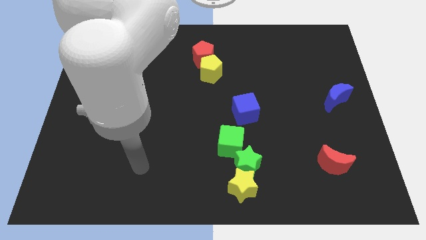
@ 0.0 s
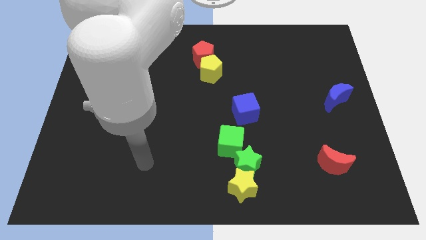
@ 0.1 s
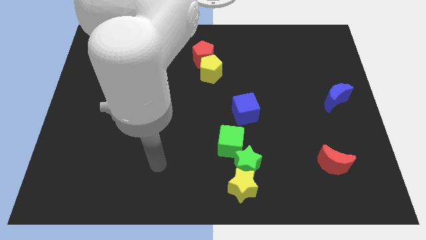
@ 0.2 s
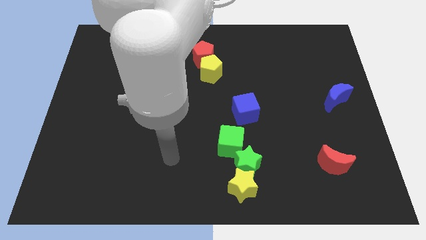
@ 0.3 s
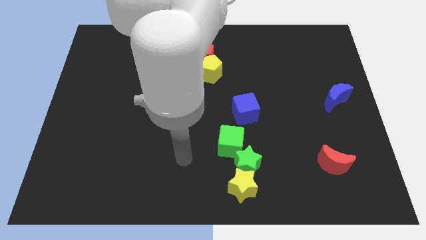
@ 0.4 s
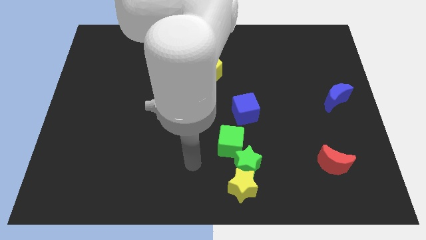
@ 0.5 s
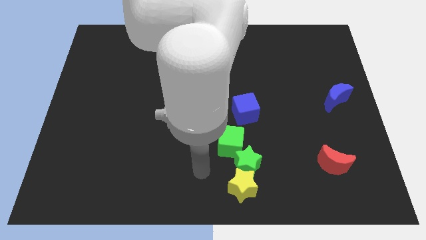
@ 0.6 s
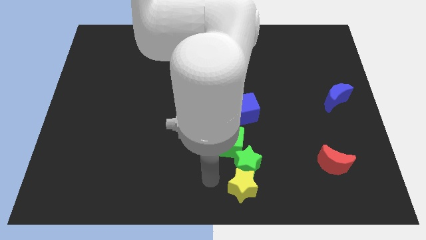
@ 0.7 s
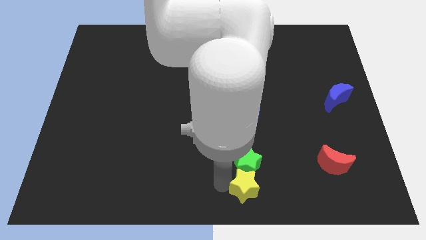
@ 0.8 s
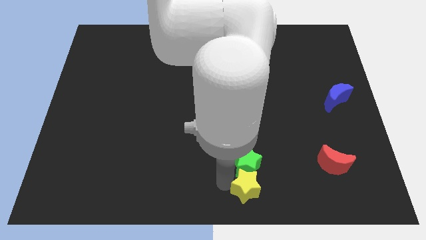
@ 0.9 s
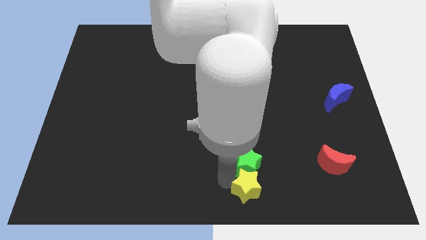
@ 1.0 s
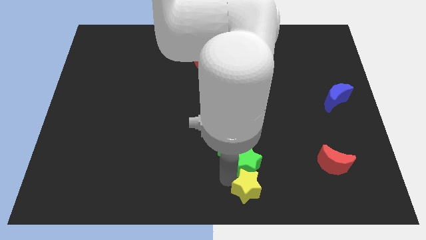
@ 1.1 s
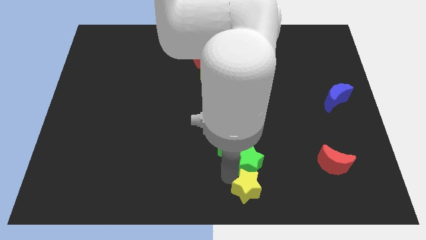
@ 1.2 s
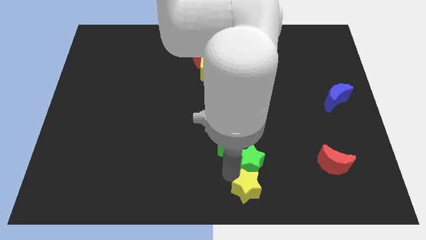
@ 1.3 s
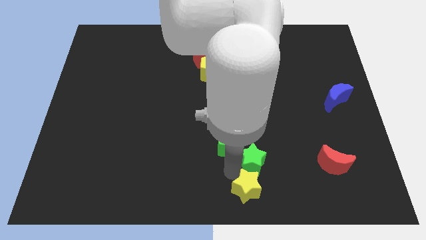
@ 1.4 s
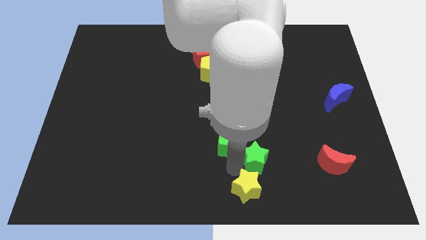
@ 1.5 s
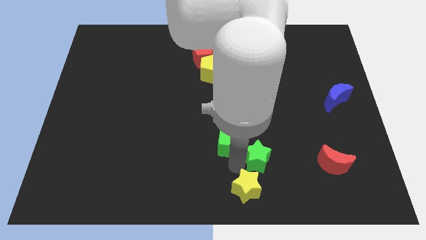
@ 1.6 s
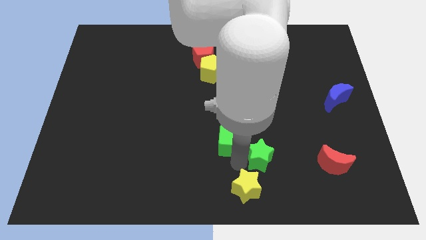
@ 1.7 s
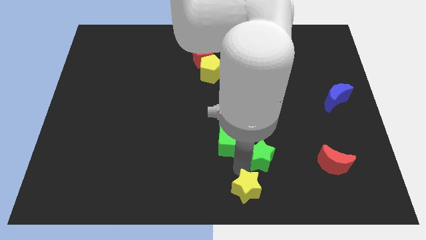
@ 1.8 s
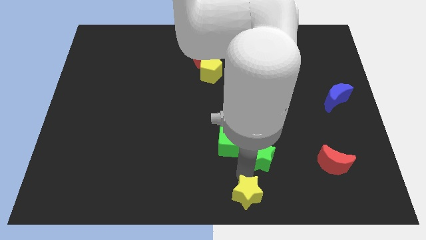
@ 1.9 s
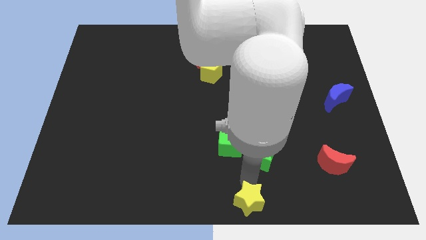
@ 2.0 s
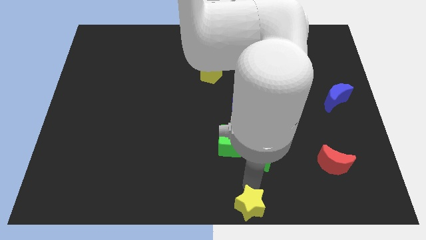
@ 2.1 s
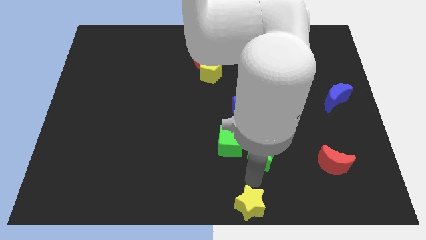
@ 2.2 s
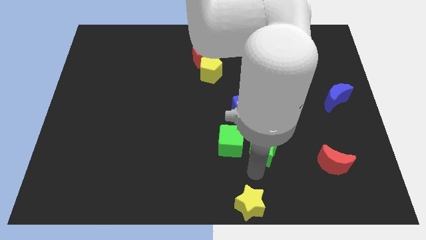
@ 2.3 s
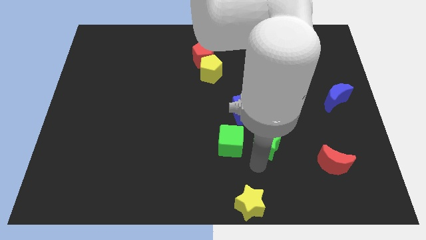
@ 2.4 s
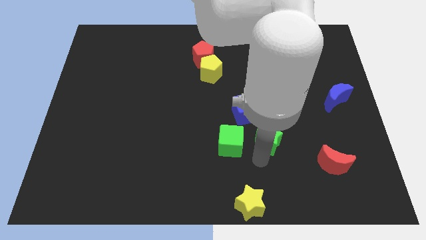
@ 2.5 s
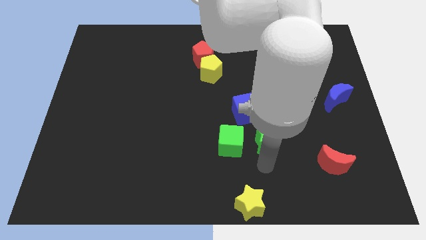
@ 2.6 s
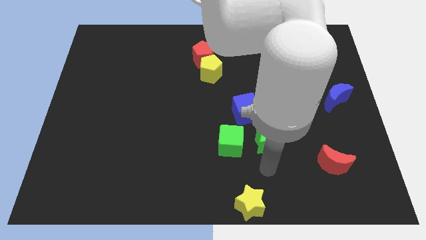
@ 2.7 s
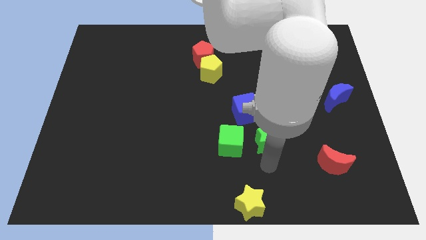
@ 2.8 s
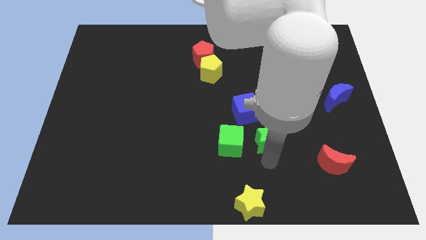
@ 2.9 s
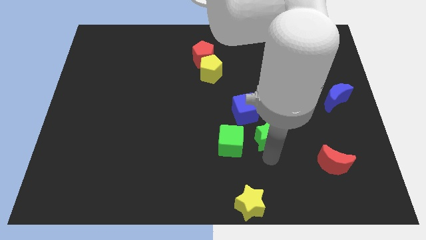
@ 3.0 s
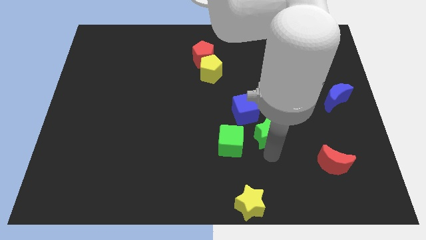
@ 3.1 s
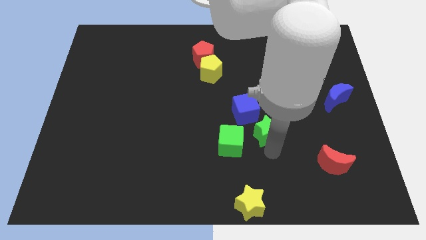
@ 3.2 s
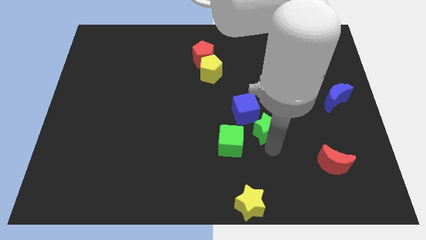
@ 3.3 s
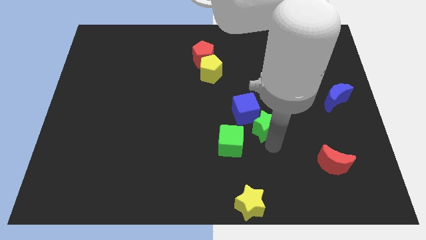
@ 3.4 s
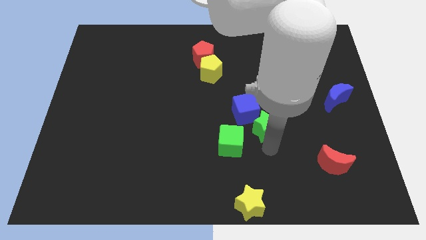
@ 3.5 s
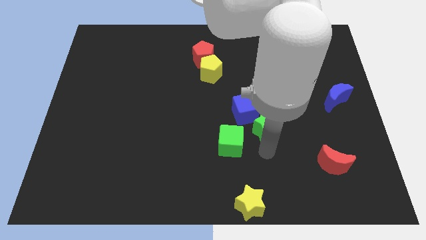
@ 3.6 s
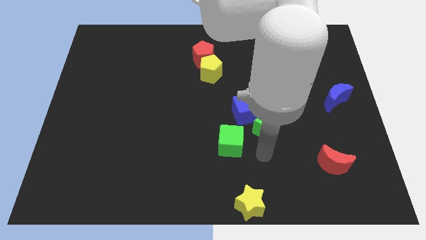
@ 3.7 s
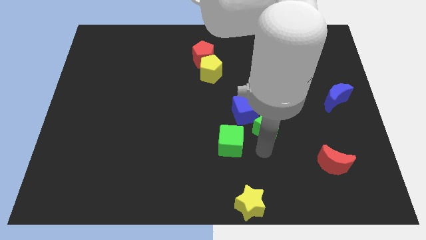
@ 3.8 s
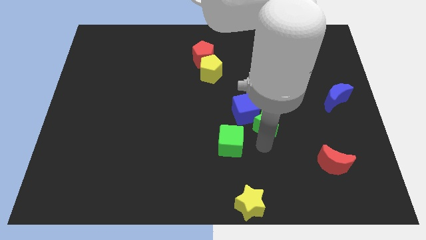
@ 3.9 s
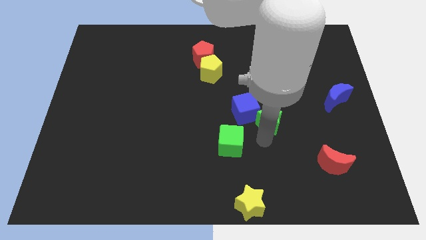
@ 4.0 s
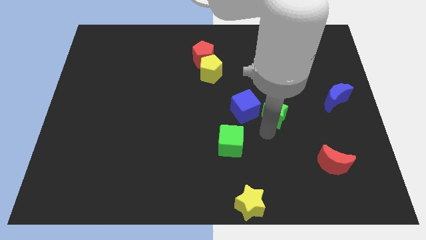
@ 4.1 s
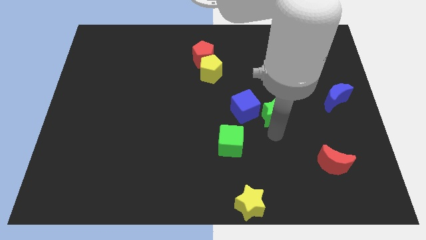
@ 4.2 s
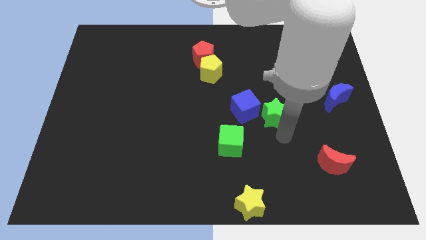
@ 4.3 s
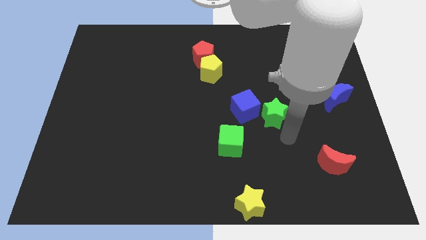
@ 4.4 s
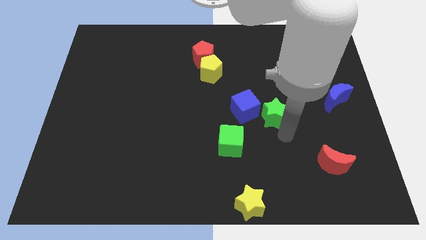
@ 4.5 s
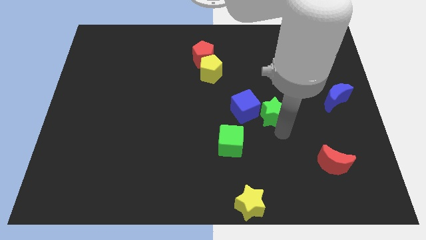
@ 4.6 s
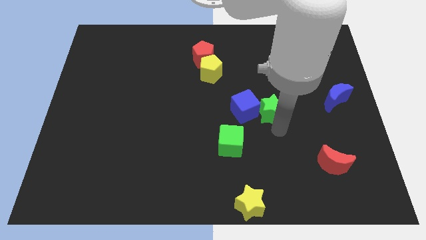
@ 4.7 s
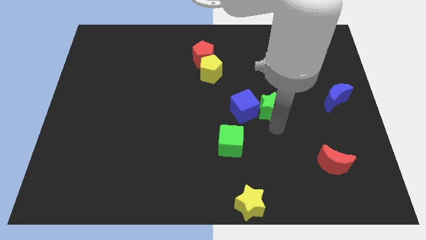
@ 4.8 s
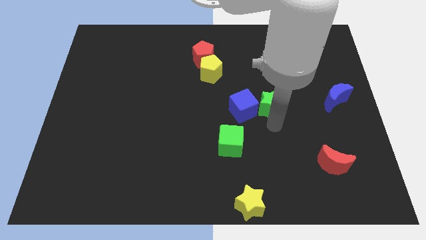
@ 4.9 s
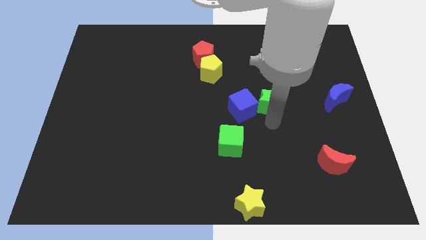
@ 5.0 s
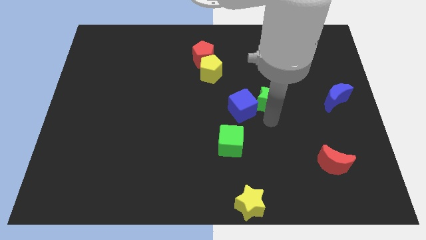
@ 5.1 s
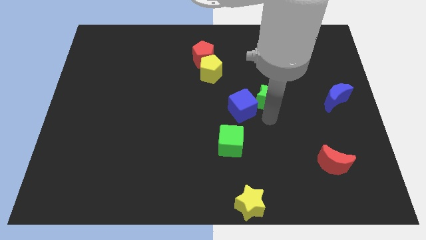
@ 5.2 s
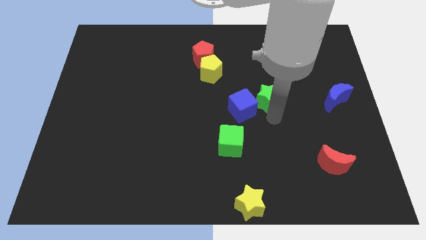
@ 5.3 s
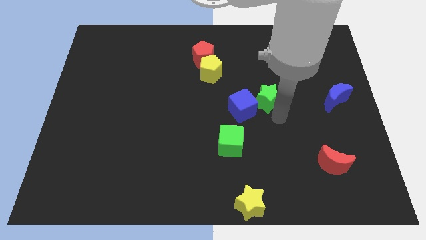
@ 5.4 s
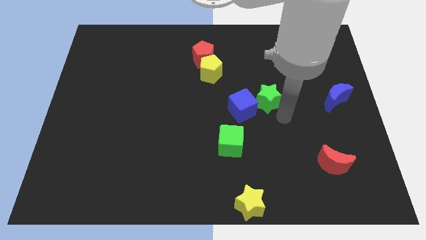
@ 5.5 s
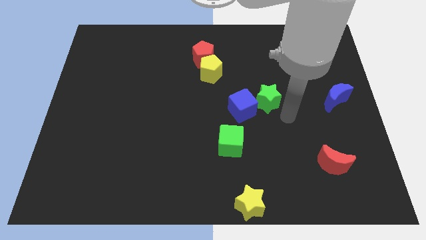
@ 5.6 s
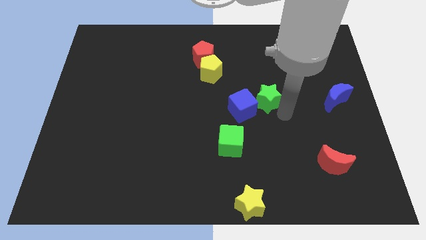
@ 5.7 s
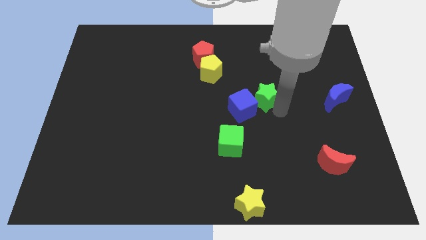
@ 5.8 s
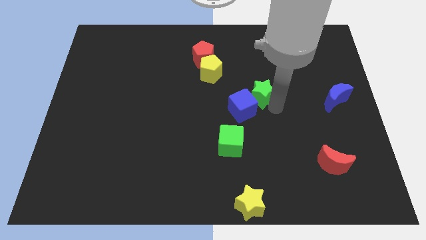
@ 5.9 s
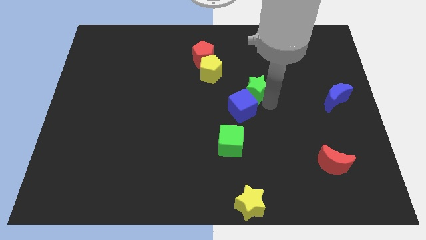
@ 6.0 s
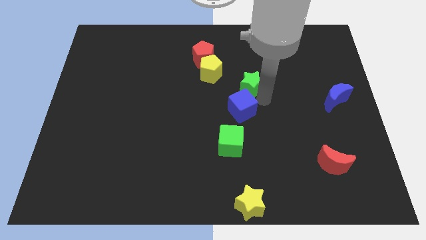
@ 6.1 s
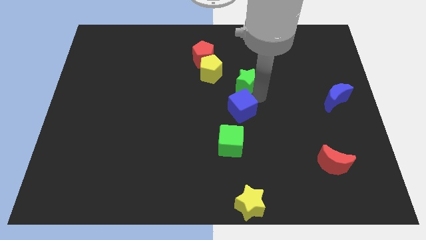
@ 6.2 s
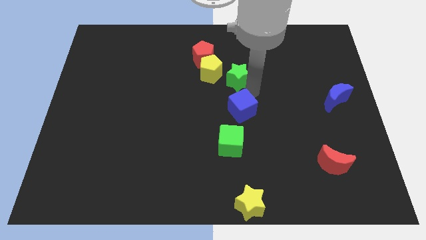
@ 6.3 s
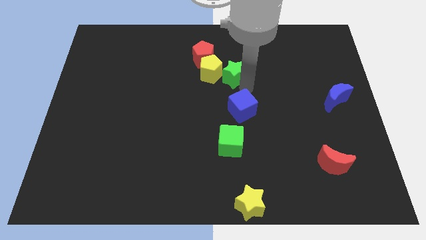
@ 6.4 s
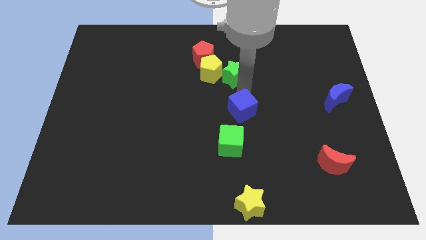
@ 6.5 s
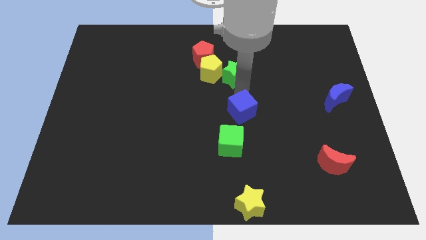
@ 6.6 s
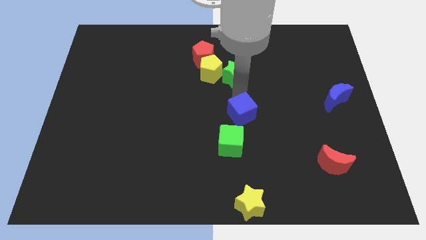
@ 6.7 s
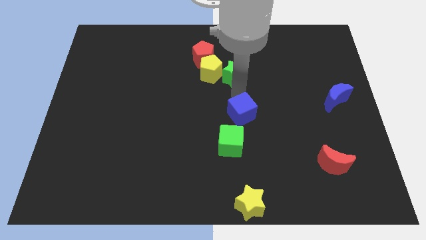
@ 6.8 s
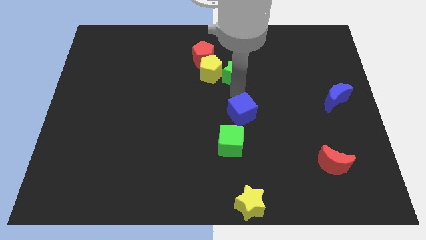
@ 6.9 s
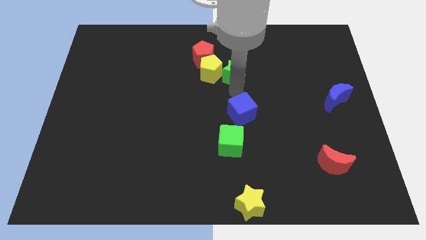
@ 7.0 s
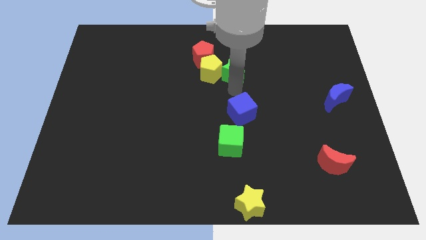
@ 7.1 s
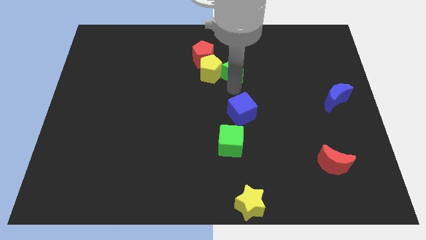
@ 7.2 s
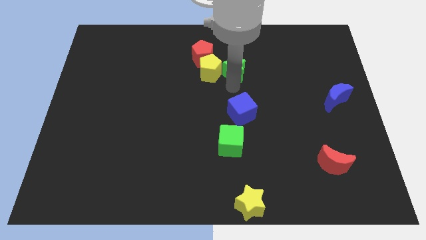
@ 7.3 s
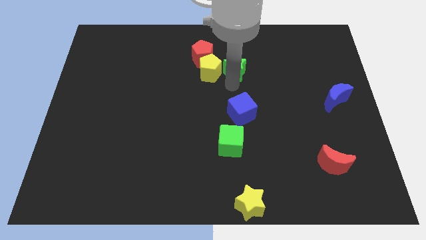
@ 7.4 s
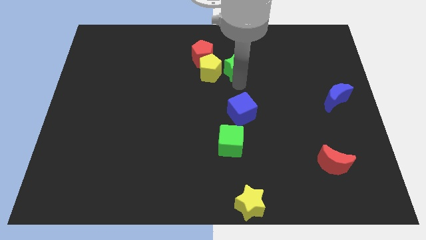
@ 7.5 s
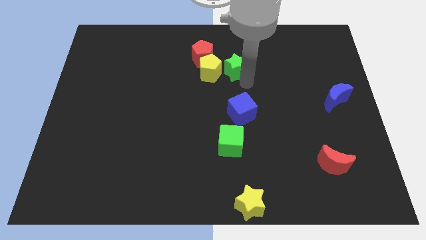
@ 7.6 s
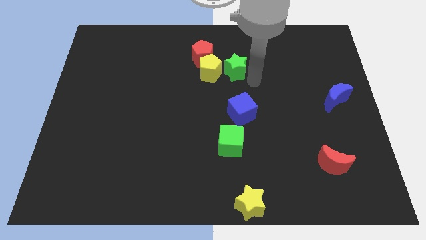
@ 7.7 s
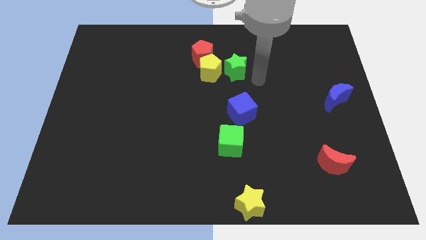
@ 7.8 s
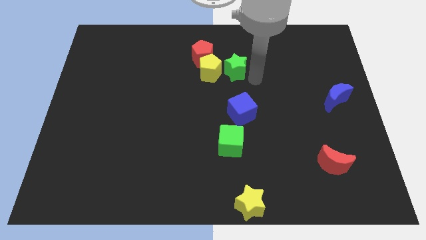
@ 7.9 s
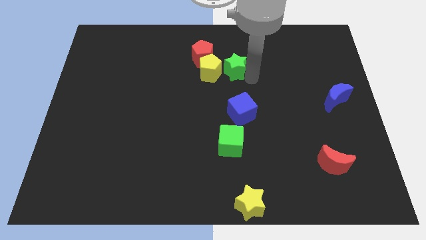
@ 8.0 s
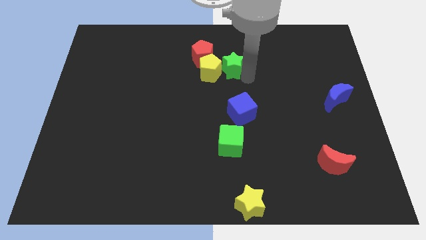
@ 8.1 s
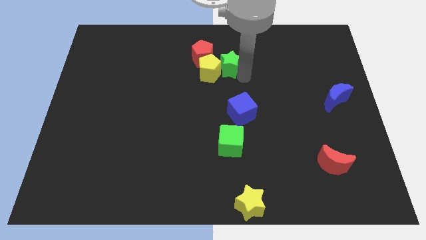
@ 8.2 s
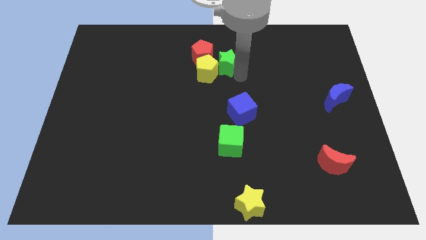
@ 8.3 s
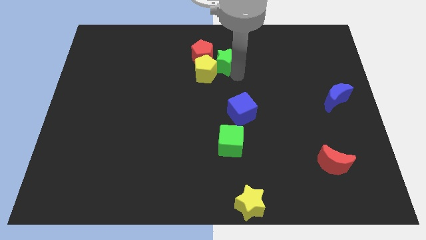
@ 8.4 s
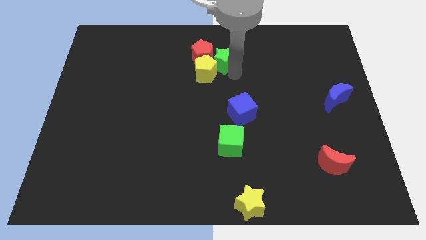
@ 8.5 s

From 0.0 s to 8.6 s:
push the green star next to the red pentagon
